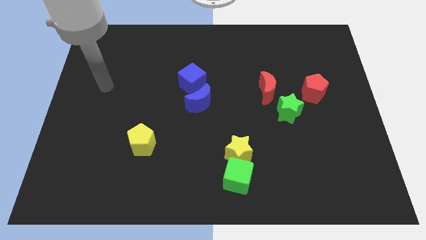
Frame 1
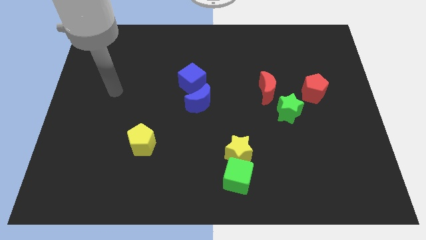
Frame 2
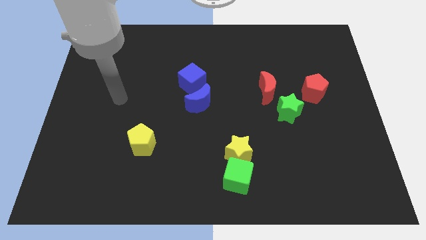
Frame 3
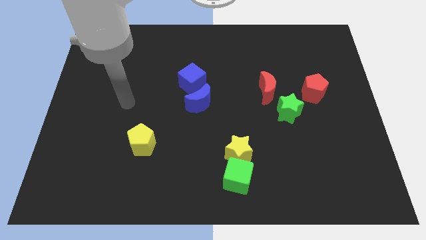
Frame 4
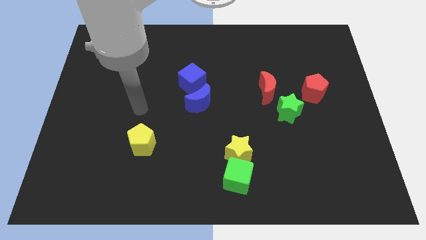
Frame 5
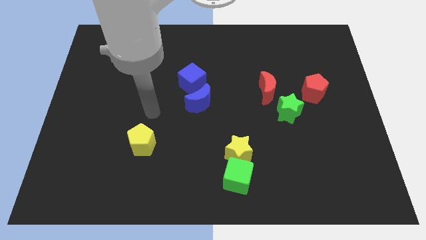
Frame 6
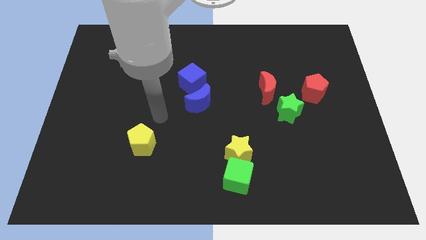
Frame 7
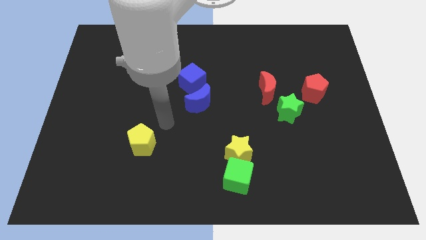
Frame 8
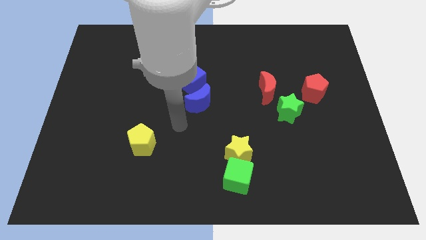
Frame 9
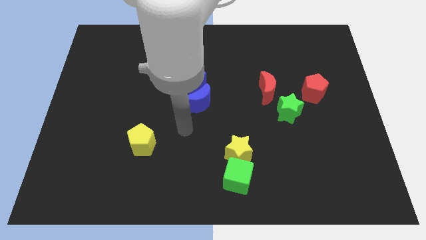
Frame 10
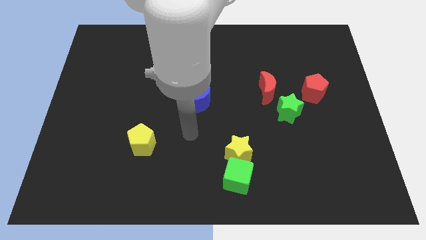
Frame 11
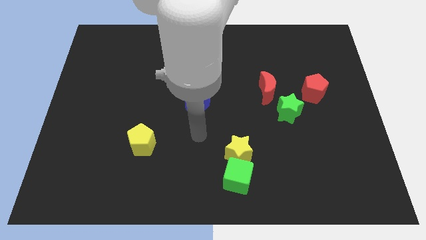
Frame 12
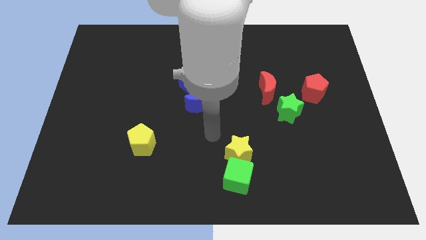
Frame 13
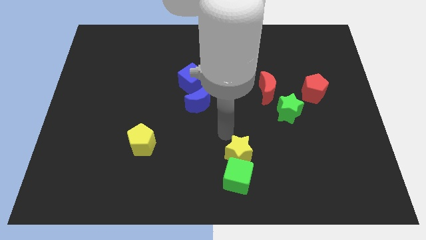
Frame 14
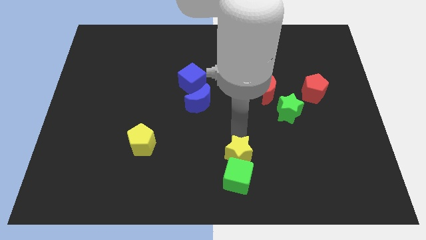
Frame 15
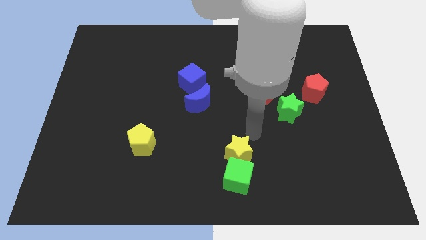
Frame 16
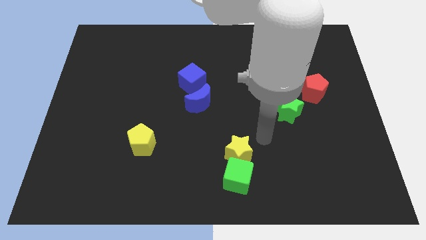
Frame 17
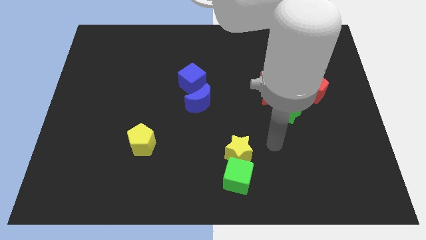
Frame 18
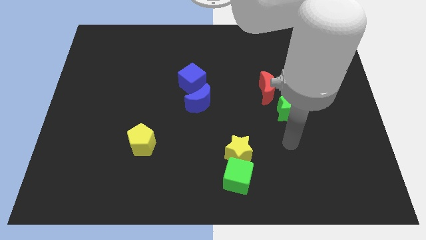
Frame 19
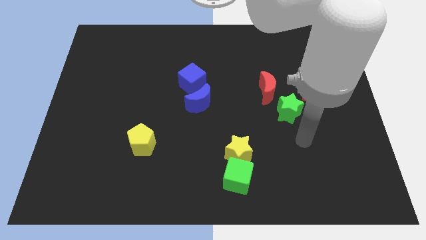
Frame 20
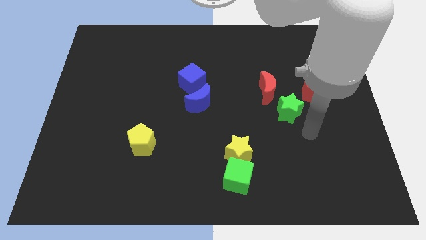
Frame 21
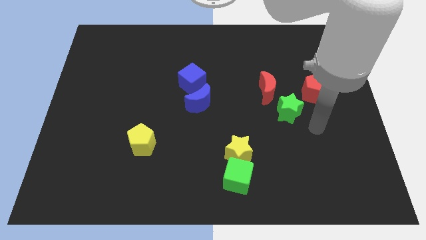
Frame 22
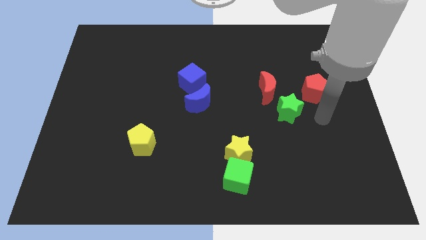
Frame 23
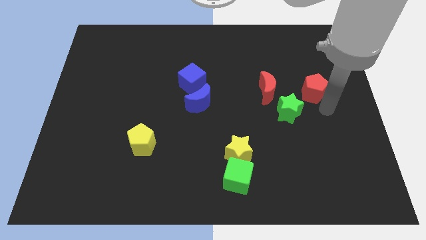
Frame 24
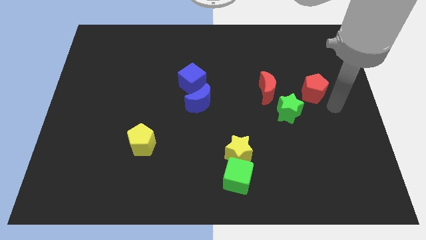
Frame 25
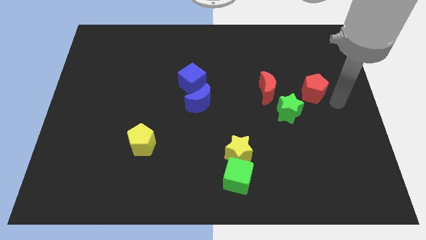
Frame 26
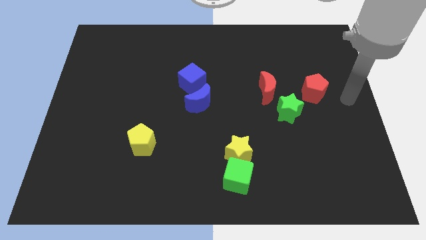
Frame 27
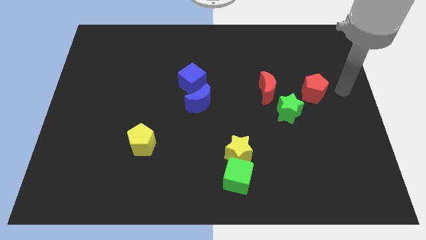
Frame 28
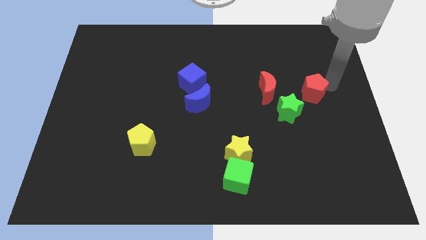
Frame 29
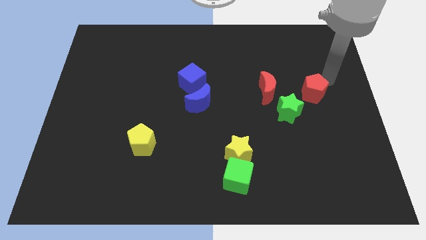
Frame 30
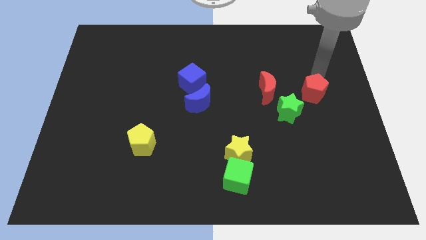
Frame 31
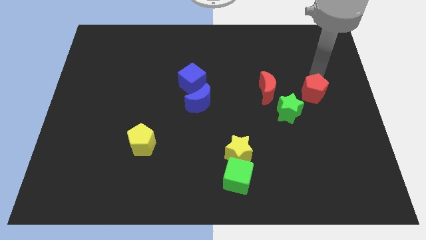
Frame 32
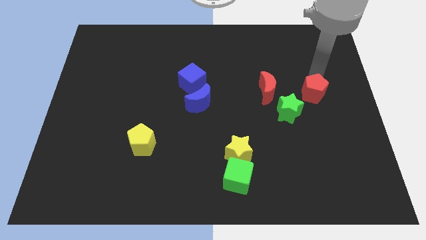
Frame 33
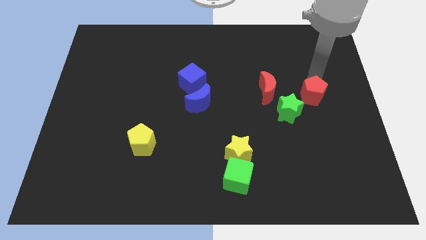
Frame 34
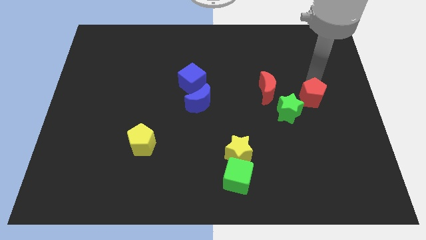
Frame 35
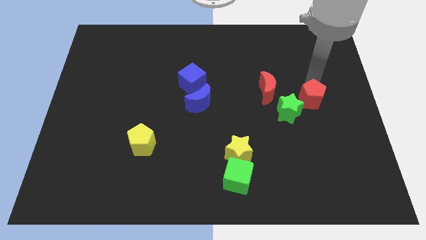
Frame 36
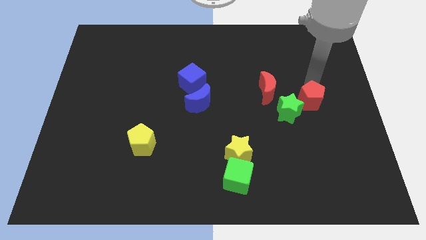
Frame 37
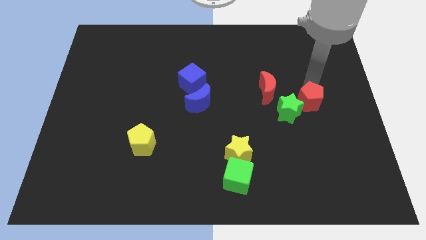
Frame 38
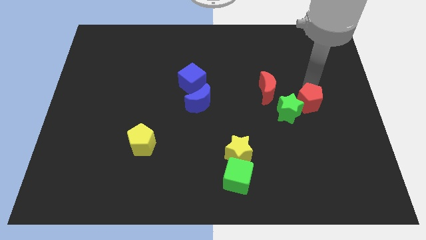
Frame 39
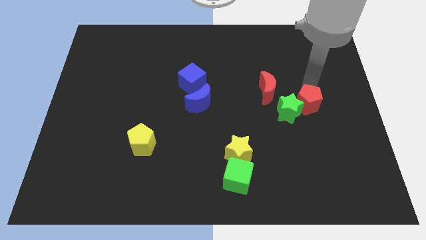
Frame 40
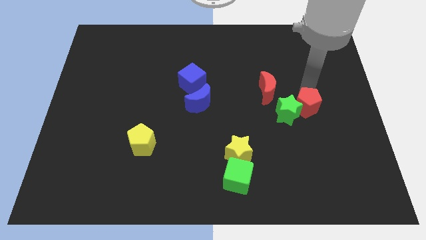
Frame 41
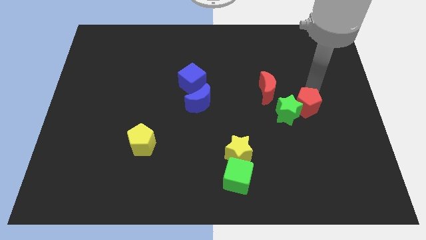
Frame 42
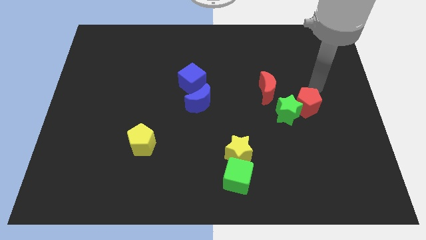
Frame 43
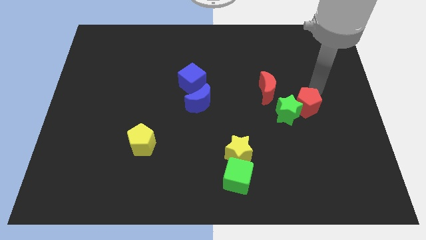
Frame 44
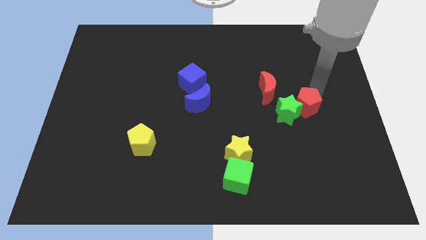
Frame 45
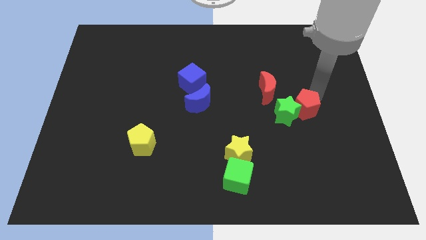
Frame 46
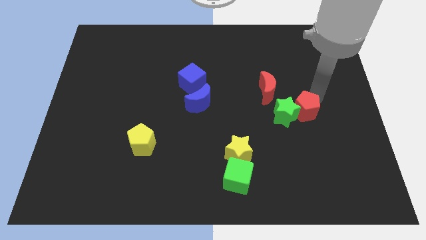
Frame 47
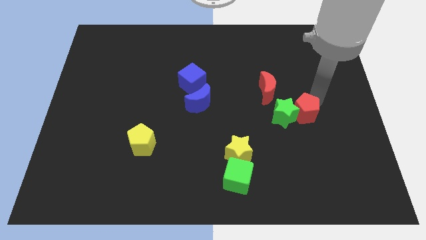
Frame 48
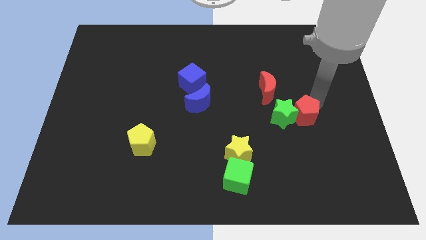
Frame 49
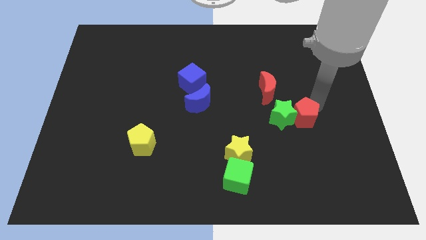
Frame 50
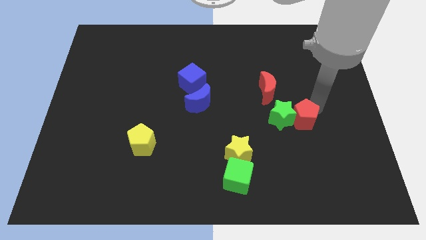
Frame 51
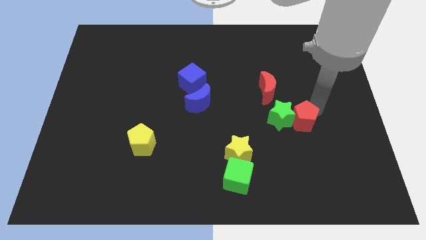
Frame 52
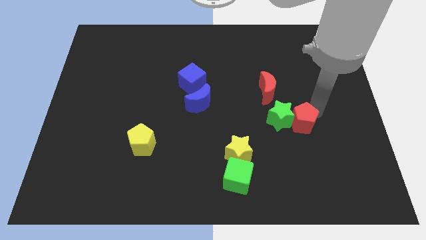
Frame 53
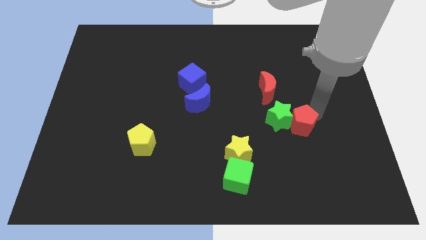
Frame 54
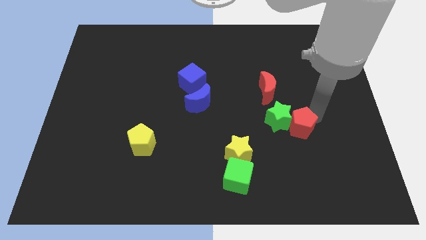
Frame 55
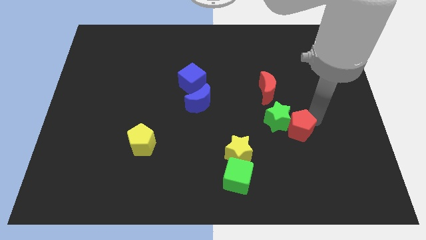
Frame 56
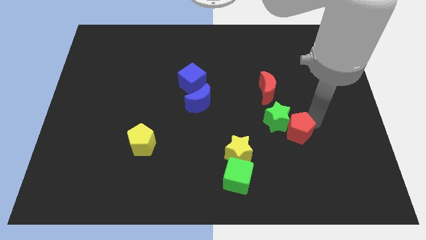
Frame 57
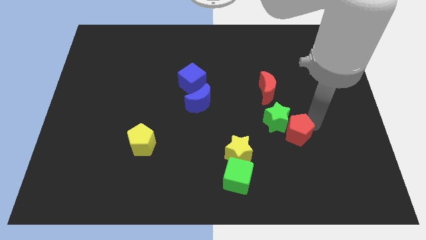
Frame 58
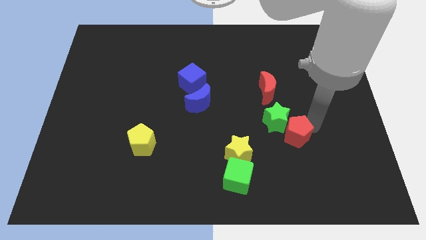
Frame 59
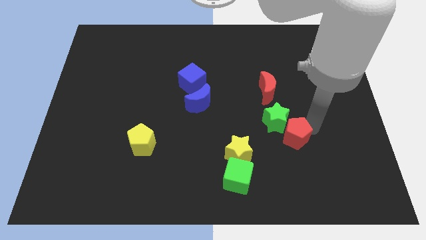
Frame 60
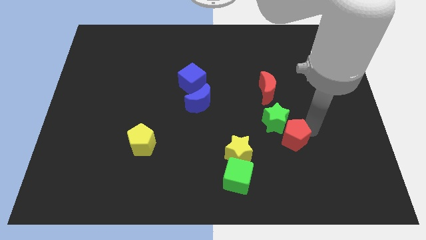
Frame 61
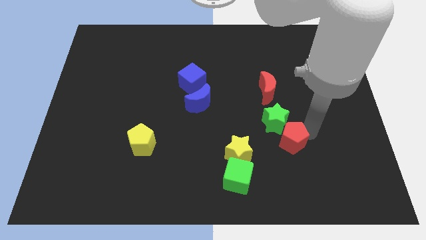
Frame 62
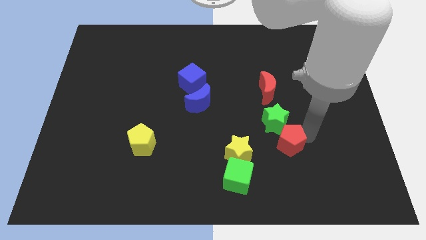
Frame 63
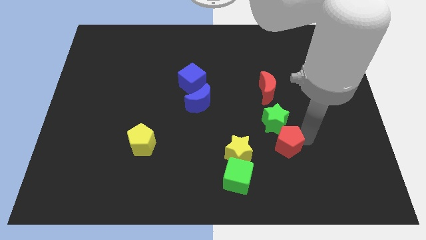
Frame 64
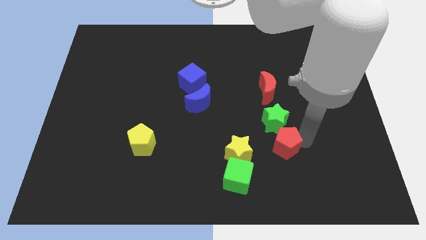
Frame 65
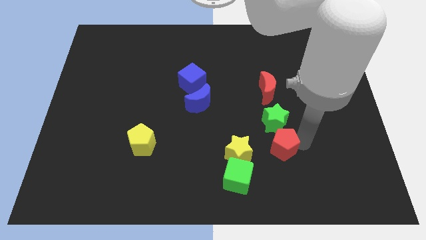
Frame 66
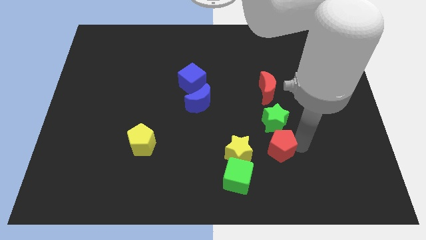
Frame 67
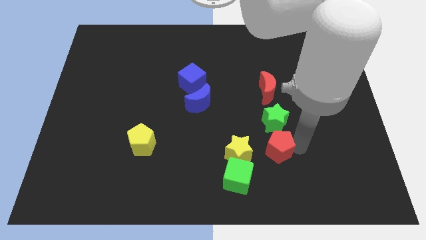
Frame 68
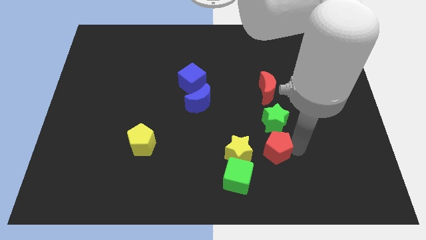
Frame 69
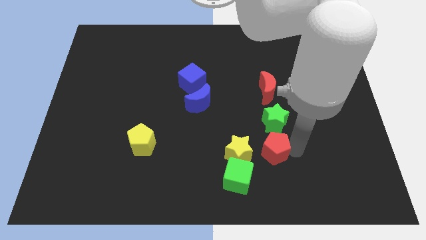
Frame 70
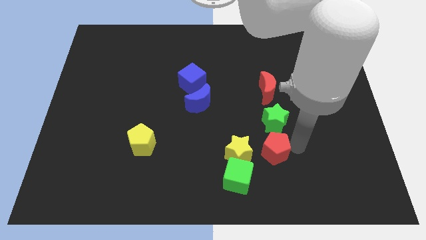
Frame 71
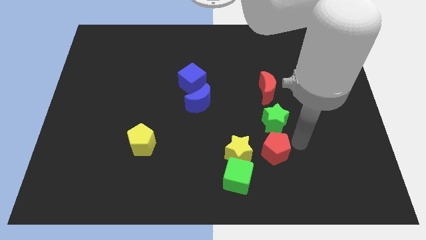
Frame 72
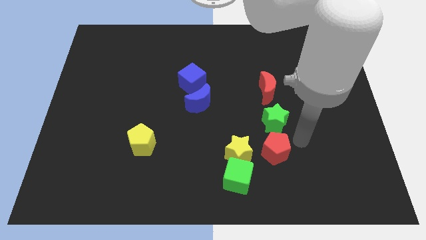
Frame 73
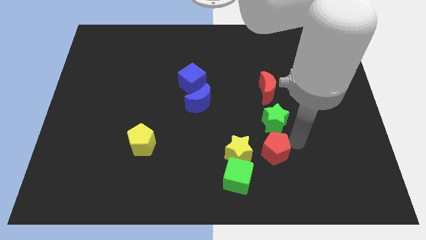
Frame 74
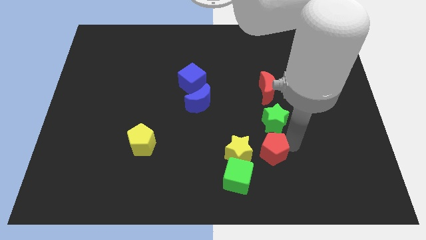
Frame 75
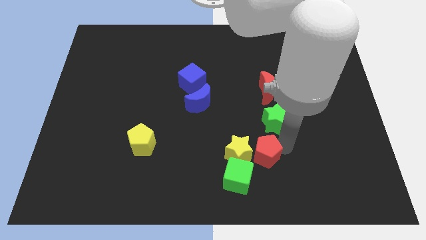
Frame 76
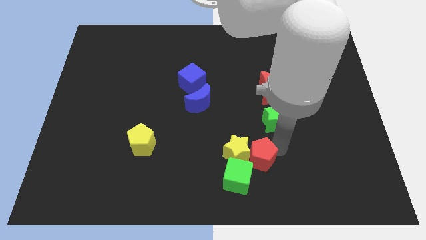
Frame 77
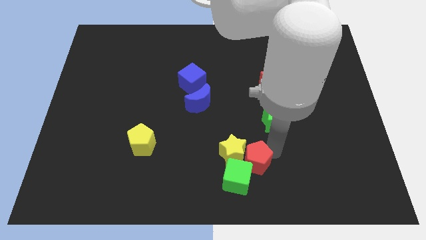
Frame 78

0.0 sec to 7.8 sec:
move the red pentagon to the green cube
